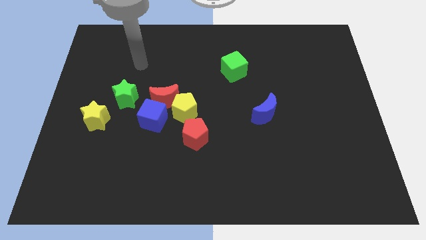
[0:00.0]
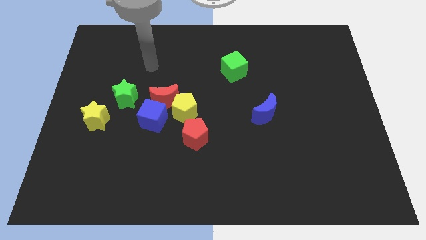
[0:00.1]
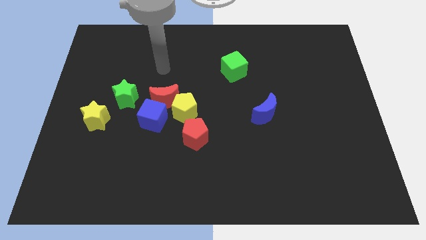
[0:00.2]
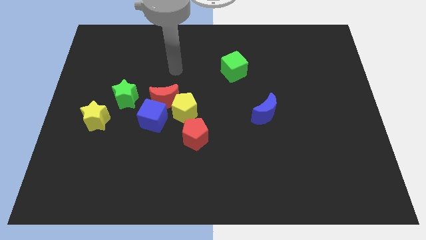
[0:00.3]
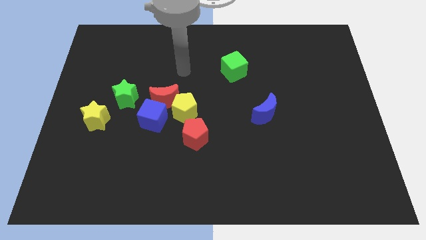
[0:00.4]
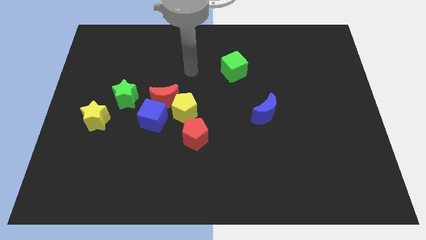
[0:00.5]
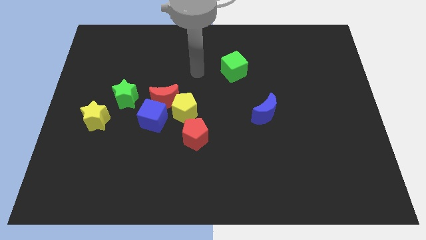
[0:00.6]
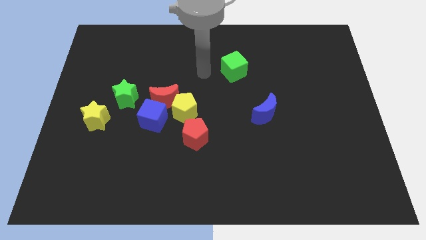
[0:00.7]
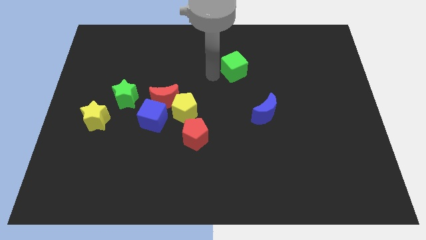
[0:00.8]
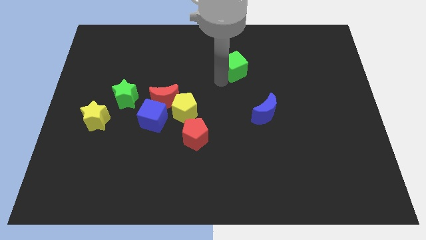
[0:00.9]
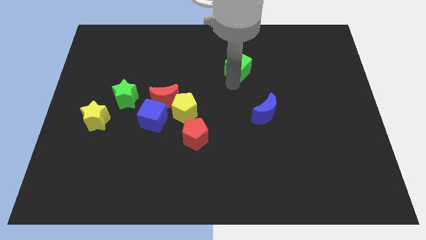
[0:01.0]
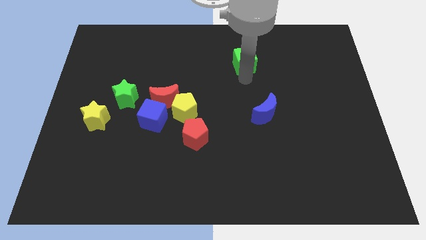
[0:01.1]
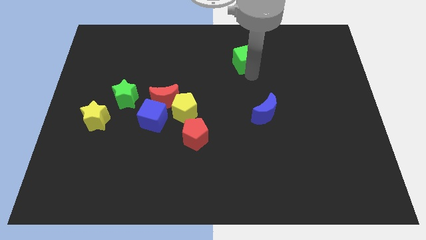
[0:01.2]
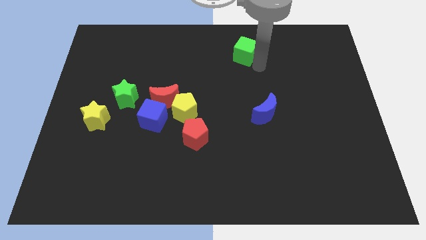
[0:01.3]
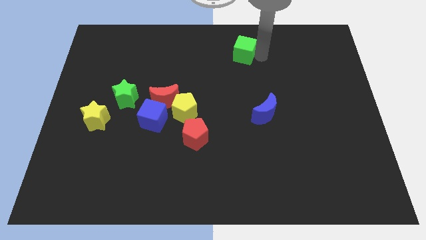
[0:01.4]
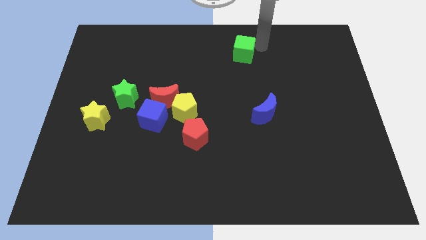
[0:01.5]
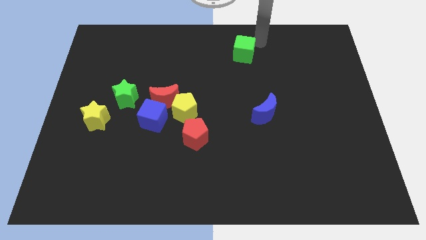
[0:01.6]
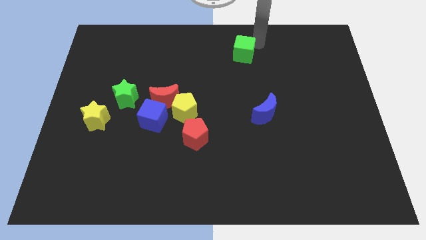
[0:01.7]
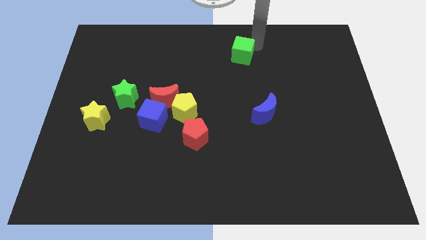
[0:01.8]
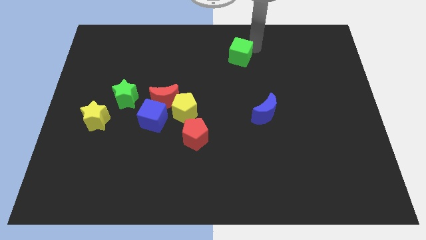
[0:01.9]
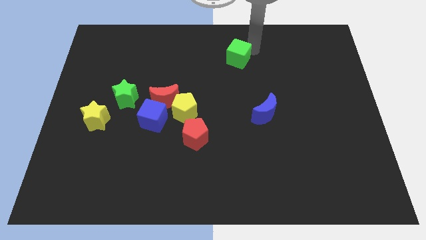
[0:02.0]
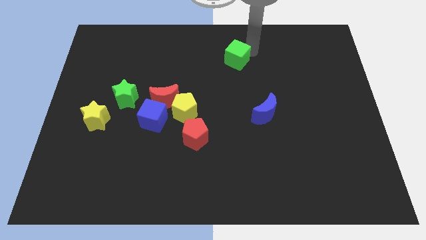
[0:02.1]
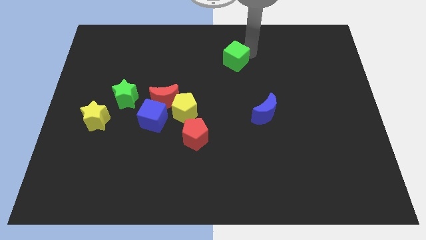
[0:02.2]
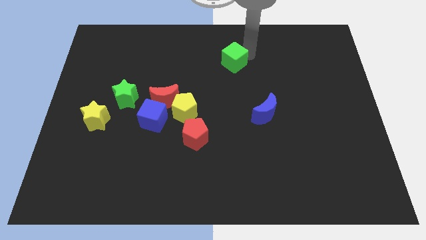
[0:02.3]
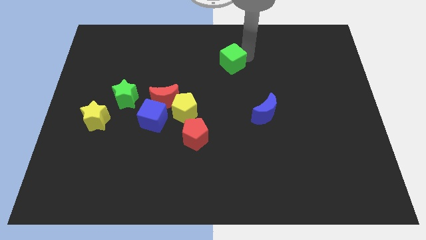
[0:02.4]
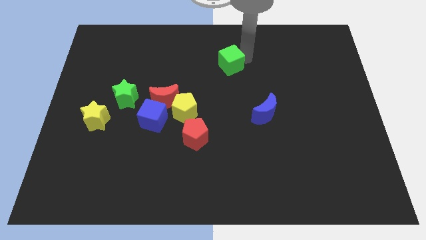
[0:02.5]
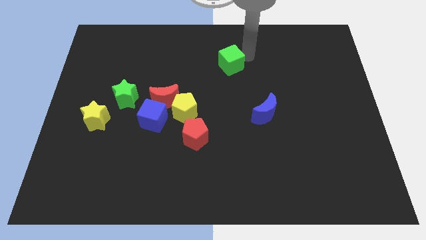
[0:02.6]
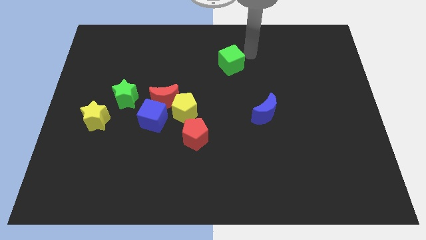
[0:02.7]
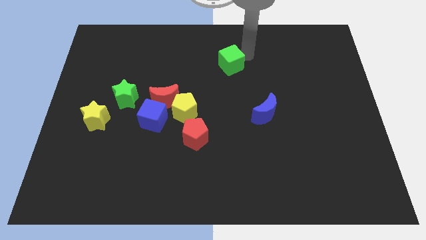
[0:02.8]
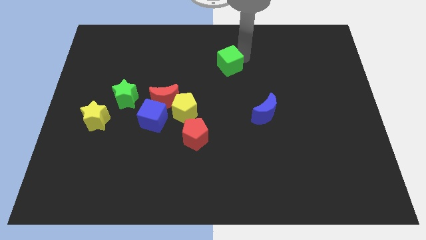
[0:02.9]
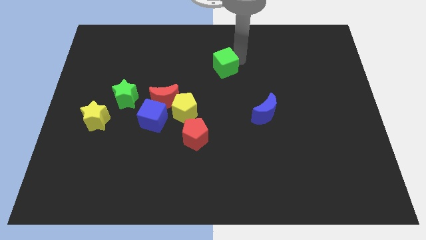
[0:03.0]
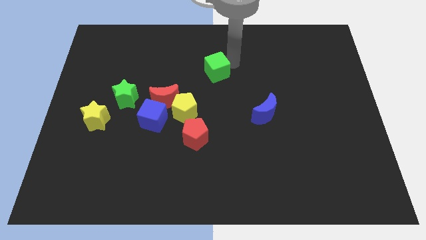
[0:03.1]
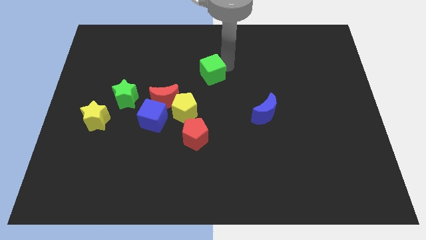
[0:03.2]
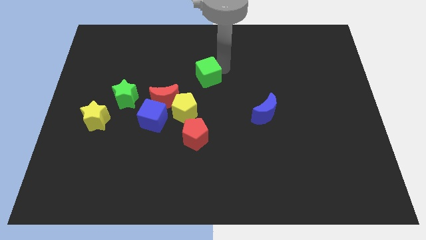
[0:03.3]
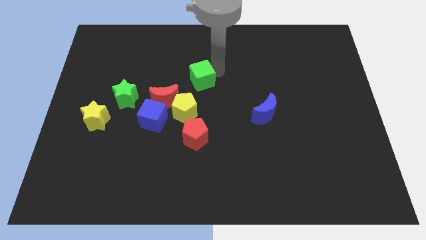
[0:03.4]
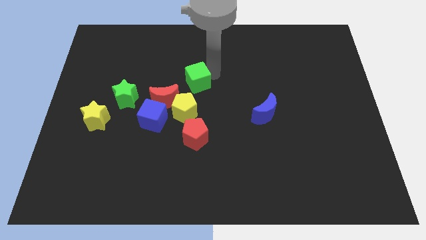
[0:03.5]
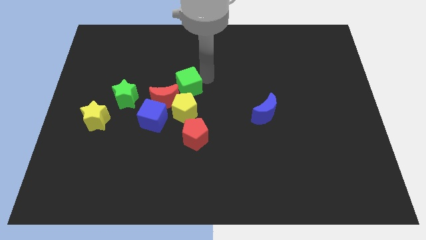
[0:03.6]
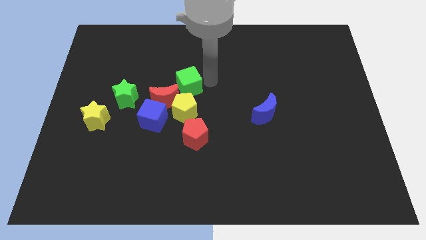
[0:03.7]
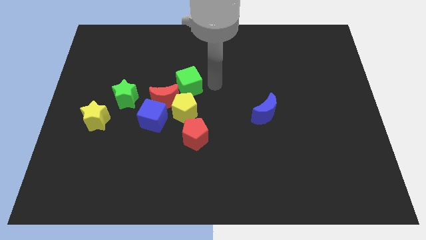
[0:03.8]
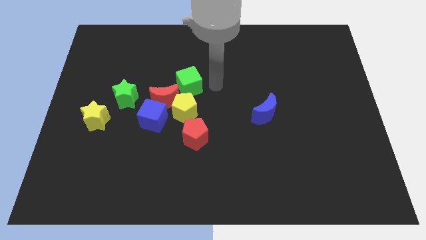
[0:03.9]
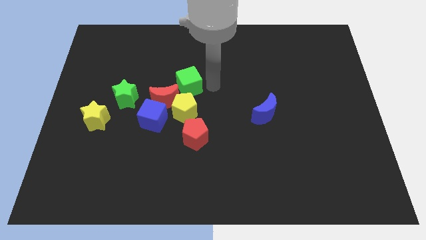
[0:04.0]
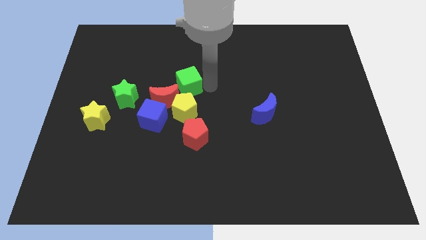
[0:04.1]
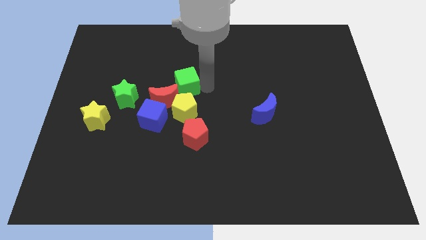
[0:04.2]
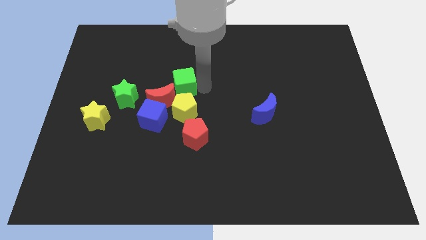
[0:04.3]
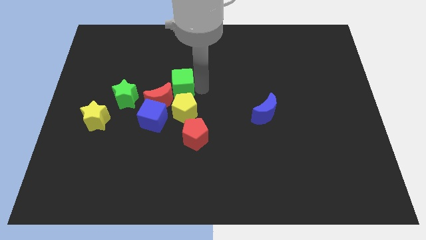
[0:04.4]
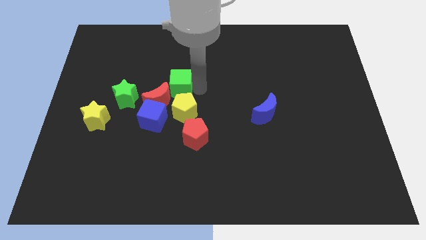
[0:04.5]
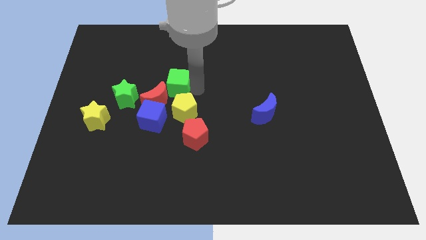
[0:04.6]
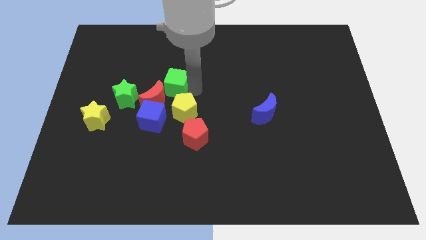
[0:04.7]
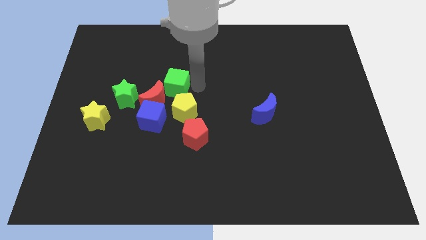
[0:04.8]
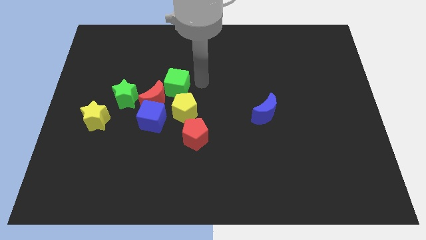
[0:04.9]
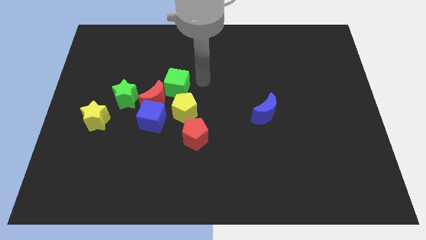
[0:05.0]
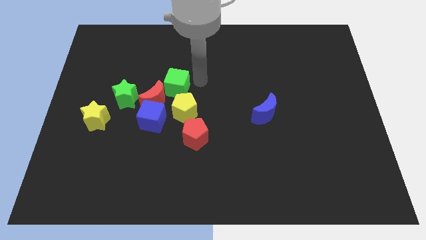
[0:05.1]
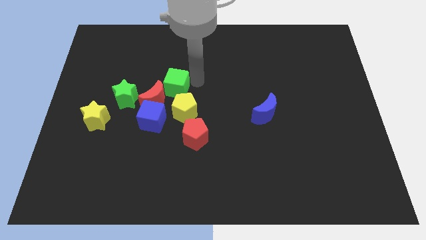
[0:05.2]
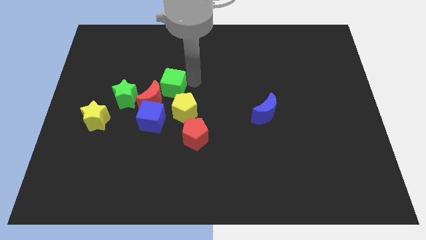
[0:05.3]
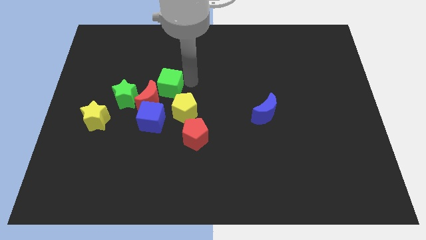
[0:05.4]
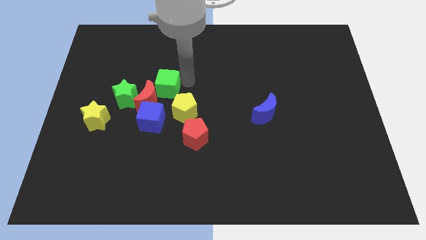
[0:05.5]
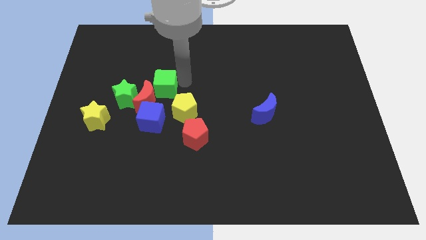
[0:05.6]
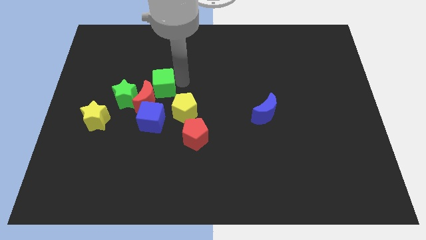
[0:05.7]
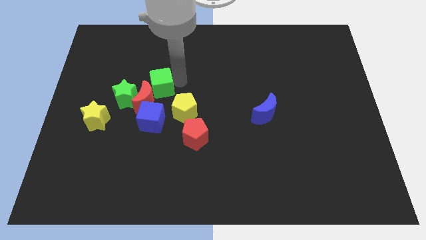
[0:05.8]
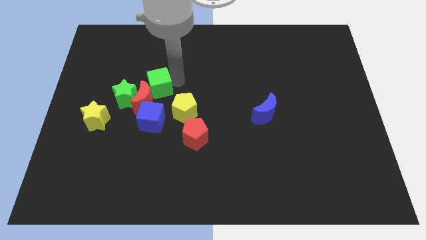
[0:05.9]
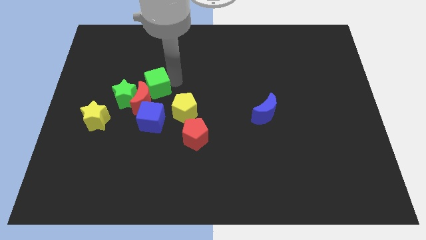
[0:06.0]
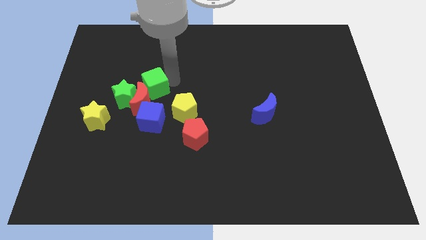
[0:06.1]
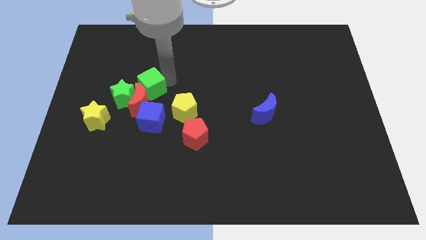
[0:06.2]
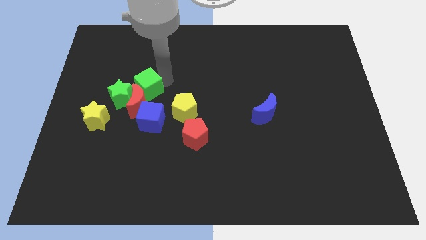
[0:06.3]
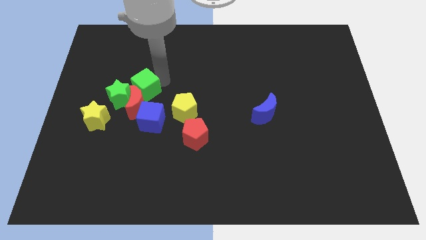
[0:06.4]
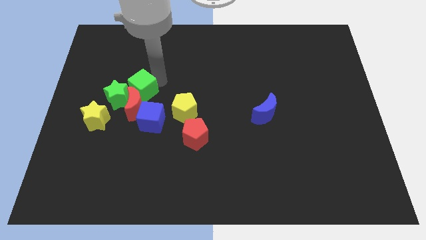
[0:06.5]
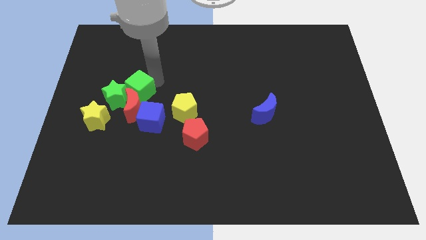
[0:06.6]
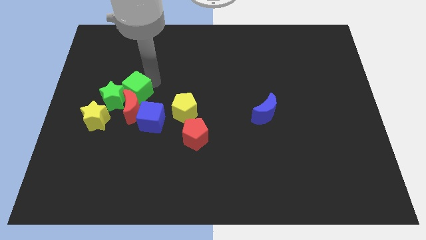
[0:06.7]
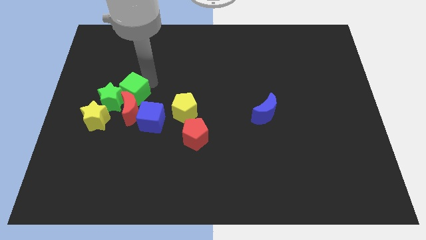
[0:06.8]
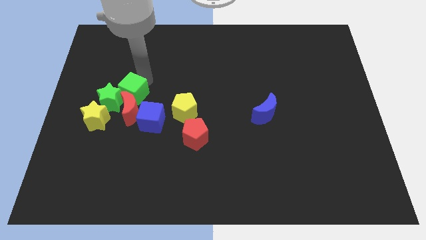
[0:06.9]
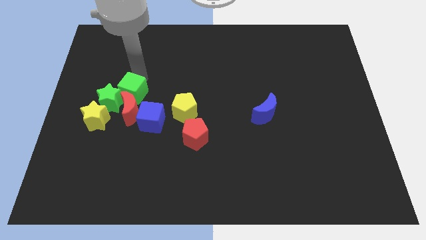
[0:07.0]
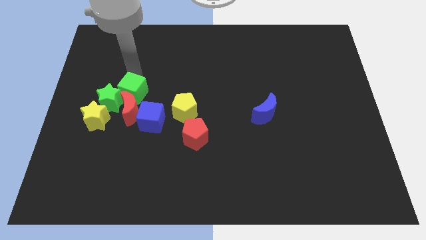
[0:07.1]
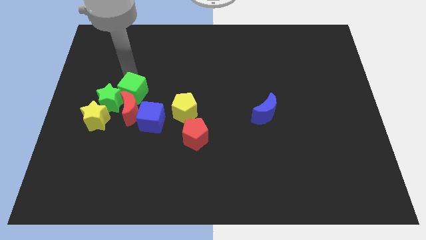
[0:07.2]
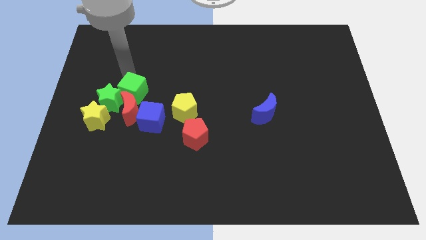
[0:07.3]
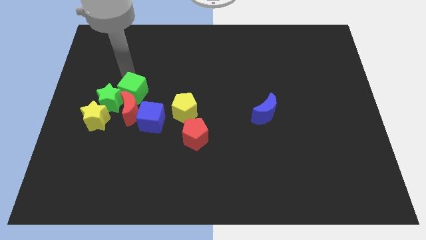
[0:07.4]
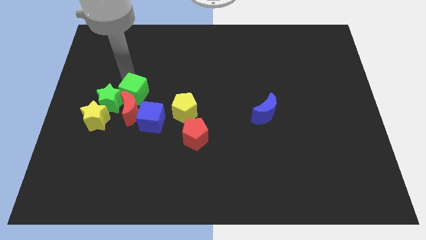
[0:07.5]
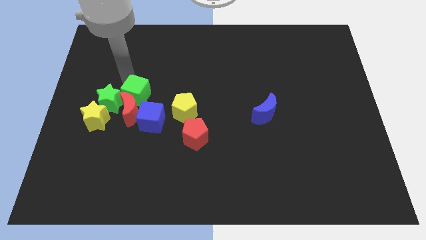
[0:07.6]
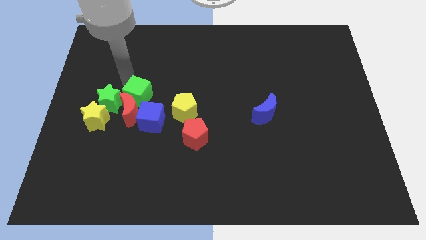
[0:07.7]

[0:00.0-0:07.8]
push the green cube just left of the yellow pentagon
